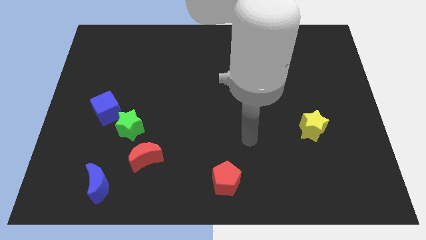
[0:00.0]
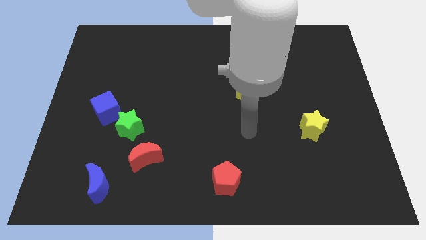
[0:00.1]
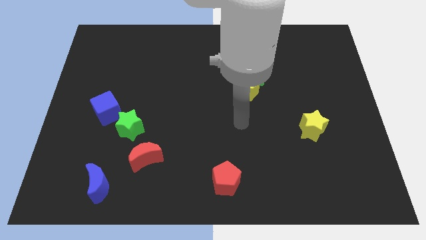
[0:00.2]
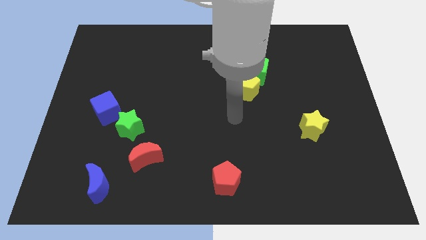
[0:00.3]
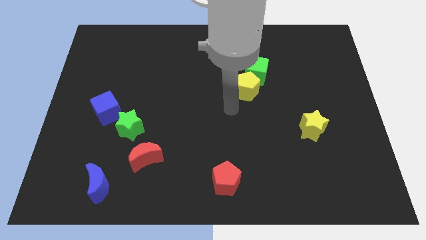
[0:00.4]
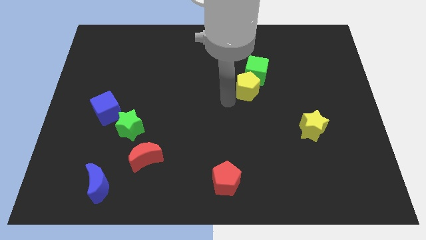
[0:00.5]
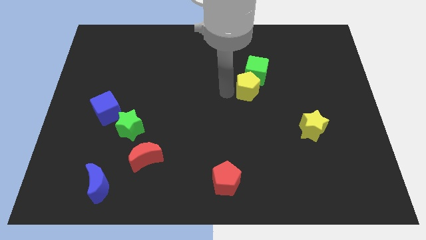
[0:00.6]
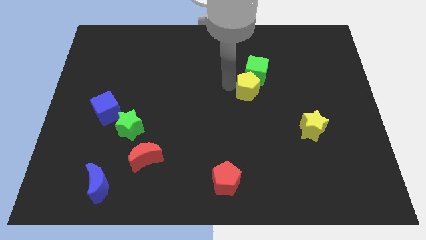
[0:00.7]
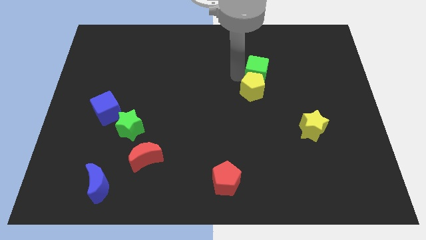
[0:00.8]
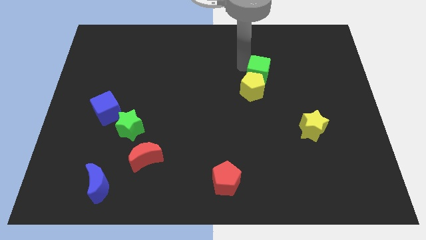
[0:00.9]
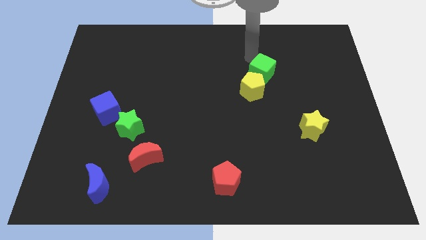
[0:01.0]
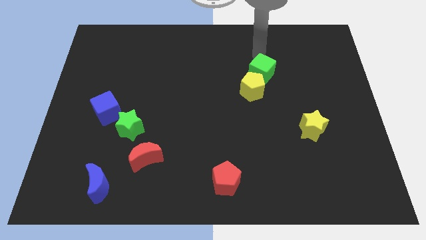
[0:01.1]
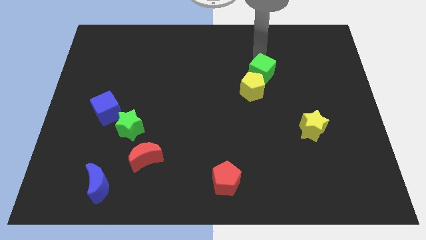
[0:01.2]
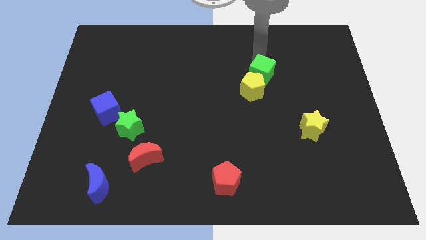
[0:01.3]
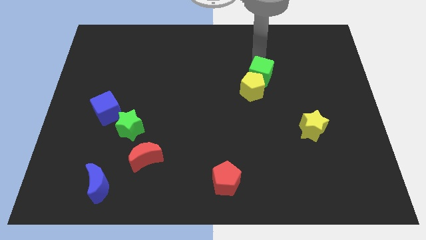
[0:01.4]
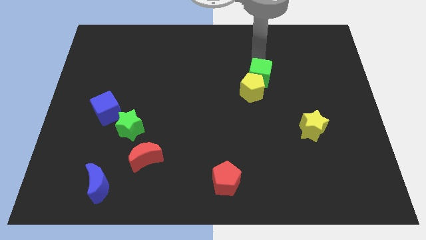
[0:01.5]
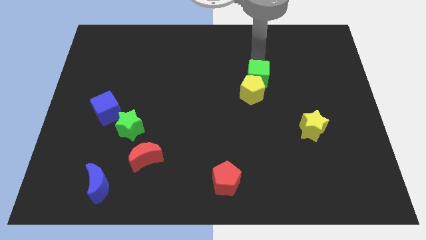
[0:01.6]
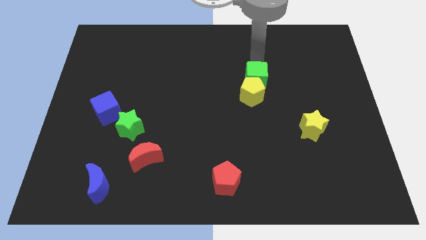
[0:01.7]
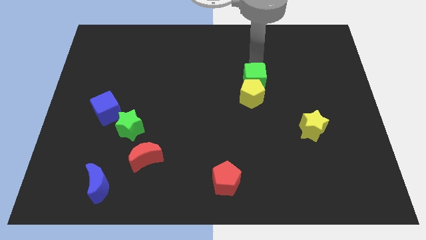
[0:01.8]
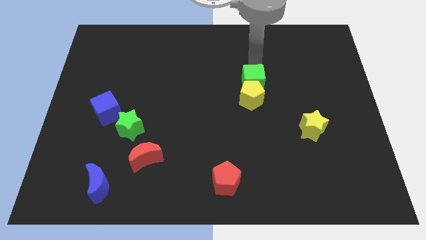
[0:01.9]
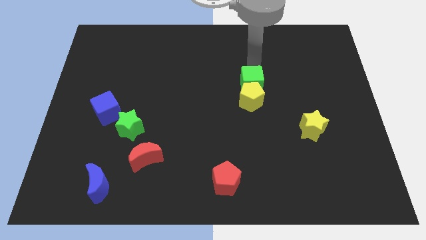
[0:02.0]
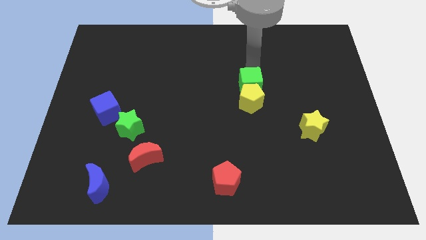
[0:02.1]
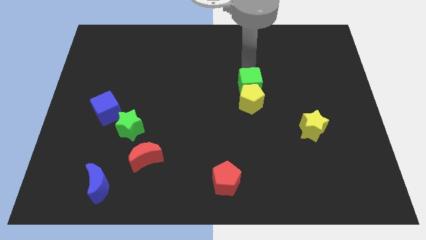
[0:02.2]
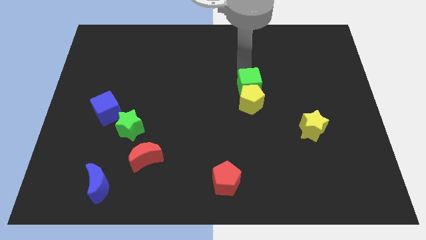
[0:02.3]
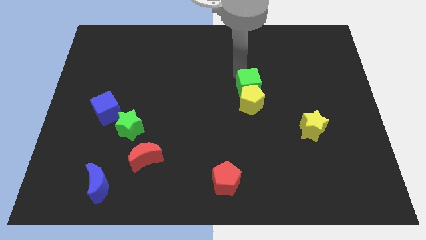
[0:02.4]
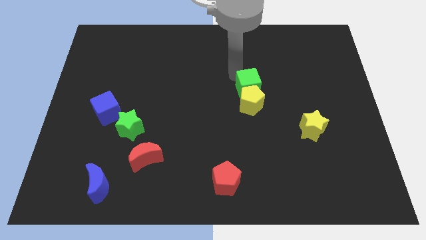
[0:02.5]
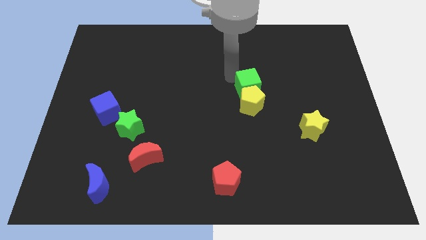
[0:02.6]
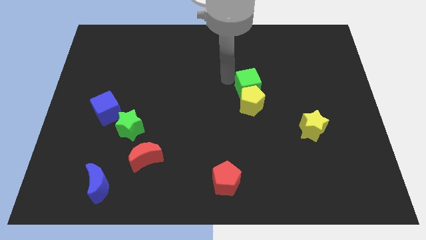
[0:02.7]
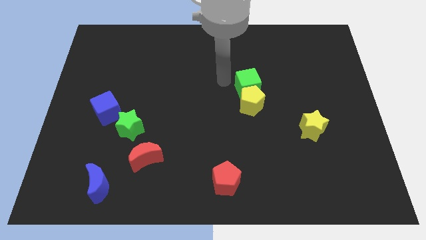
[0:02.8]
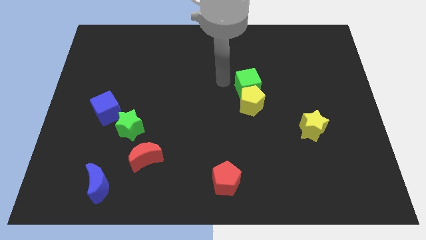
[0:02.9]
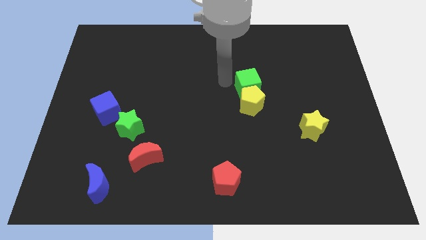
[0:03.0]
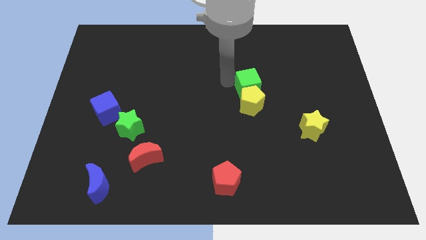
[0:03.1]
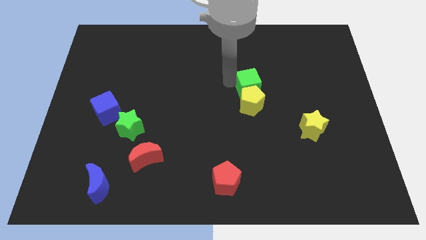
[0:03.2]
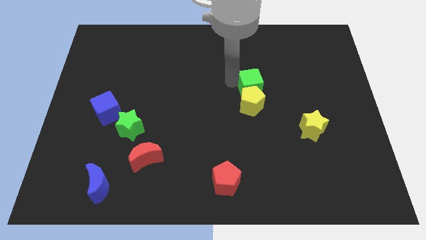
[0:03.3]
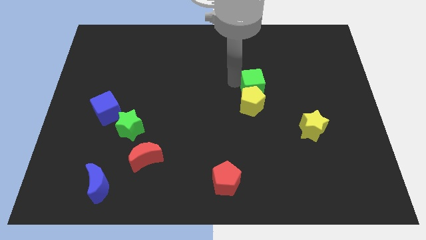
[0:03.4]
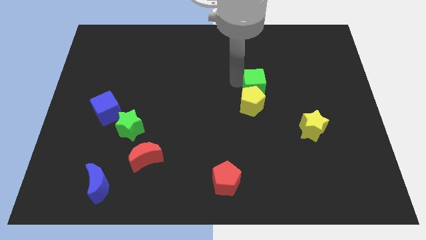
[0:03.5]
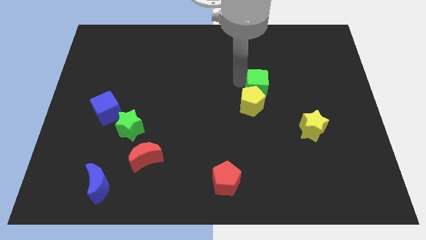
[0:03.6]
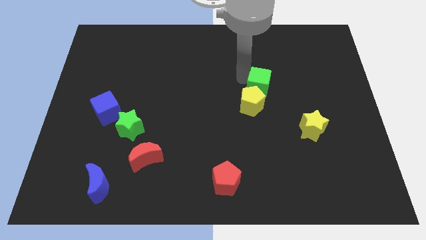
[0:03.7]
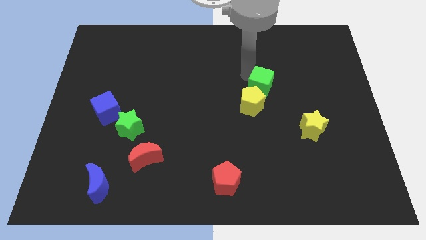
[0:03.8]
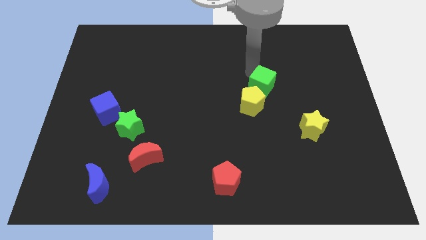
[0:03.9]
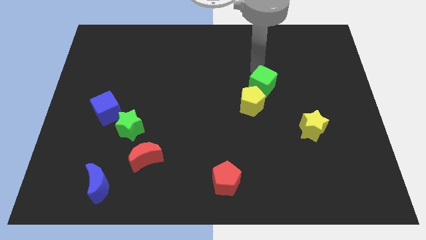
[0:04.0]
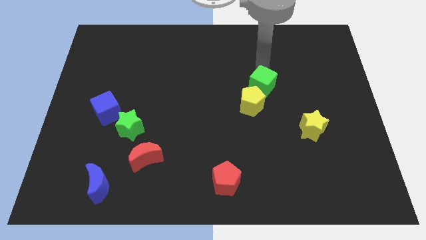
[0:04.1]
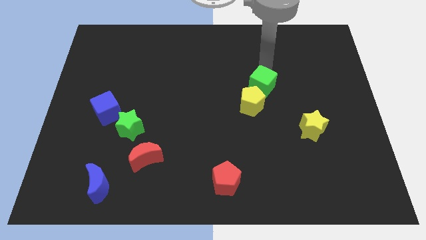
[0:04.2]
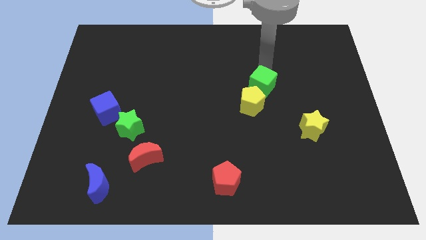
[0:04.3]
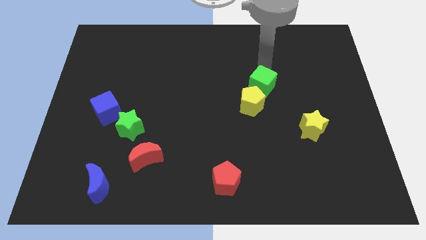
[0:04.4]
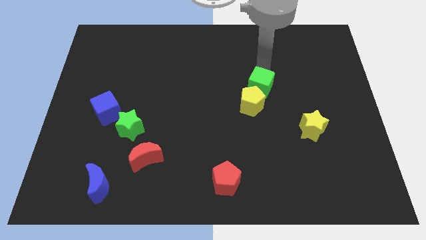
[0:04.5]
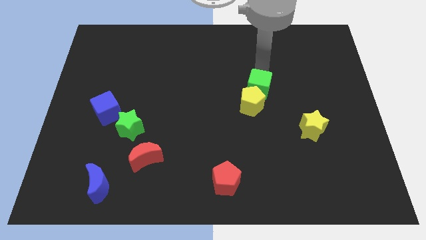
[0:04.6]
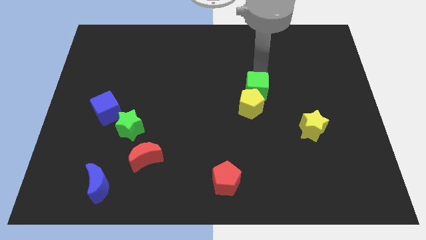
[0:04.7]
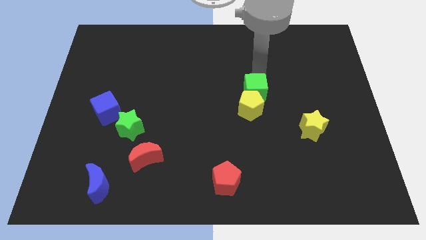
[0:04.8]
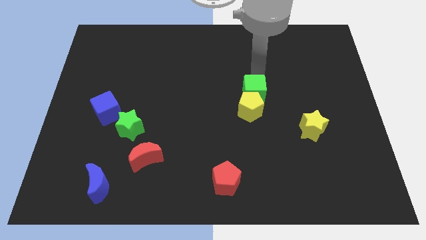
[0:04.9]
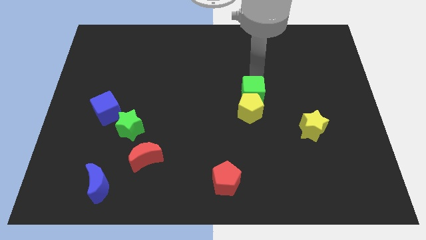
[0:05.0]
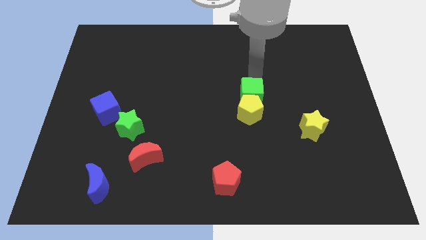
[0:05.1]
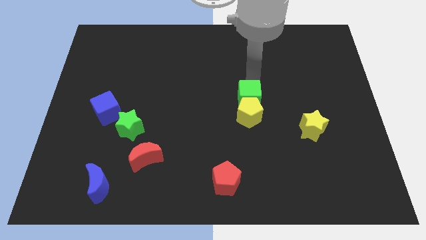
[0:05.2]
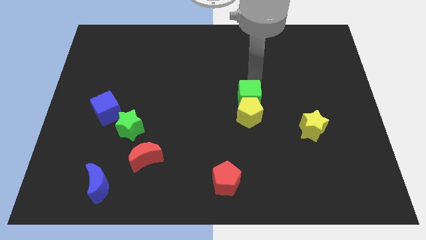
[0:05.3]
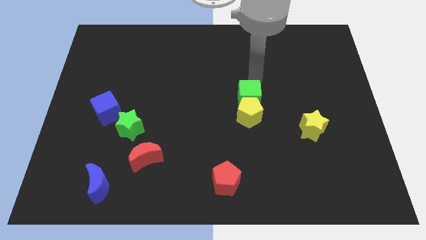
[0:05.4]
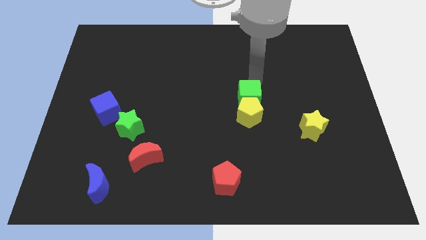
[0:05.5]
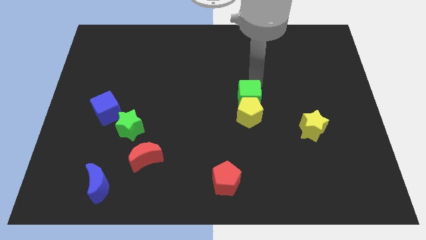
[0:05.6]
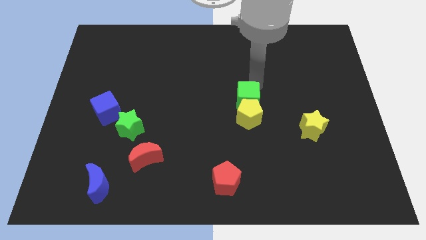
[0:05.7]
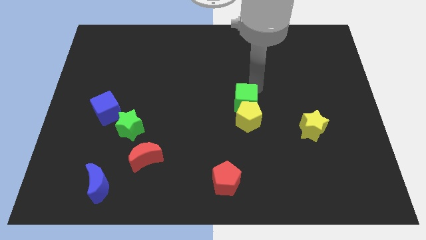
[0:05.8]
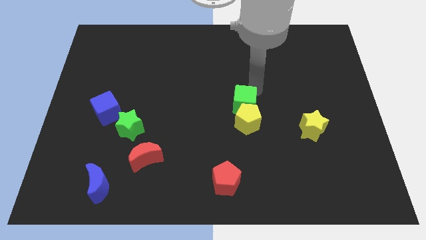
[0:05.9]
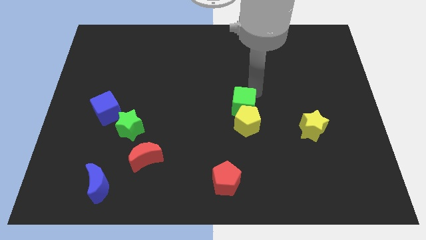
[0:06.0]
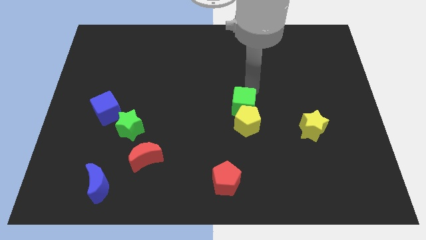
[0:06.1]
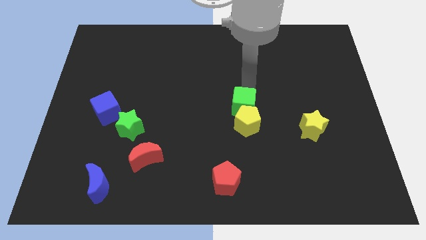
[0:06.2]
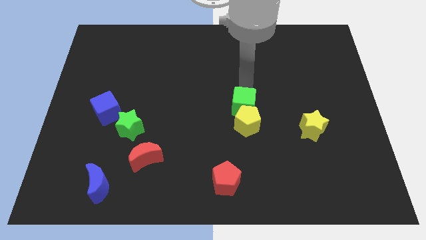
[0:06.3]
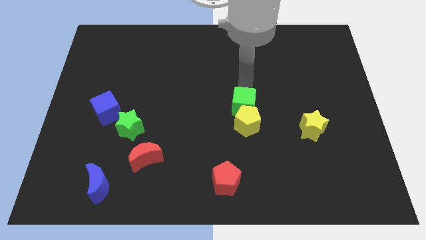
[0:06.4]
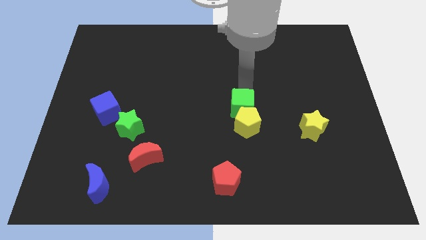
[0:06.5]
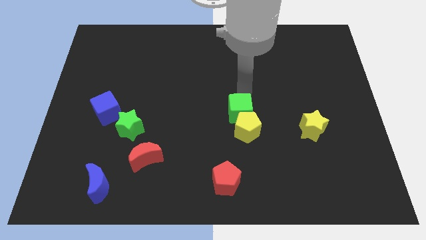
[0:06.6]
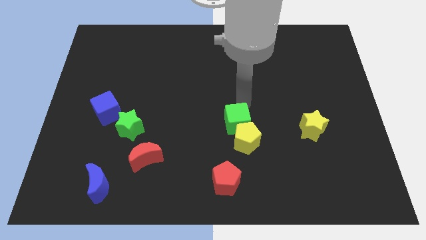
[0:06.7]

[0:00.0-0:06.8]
slide the green cube above the red pentagon
